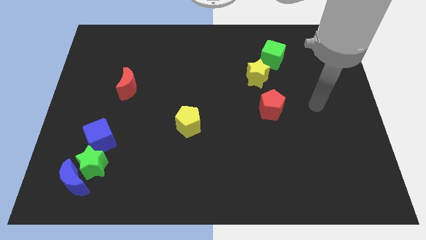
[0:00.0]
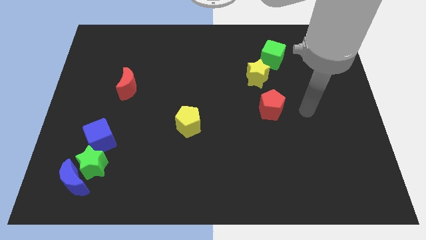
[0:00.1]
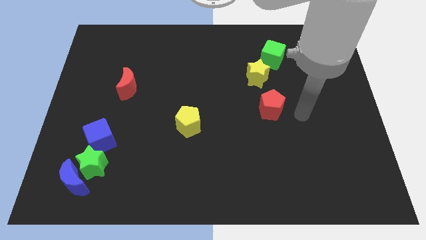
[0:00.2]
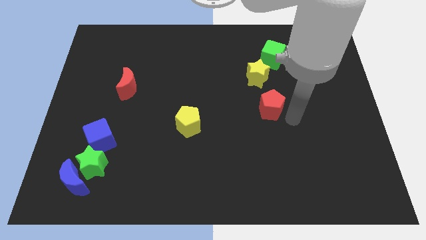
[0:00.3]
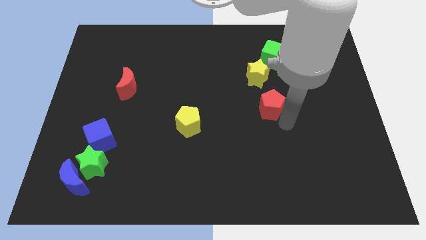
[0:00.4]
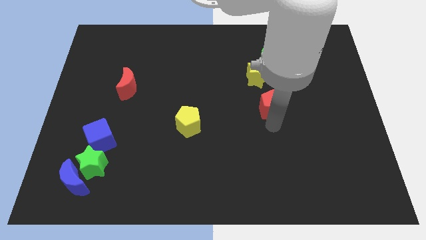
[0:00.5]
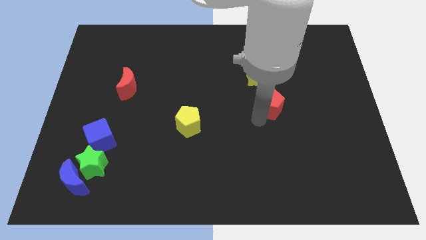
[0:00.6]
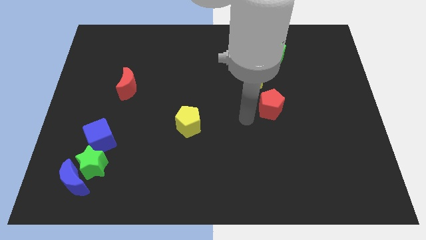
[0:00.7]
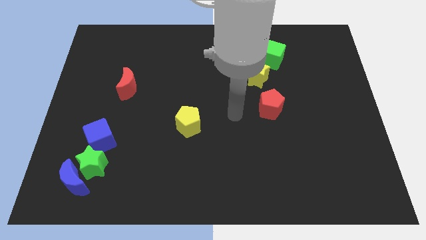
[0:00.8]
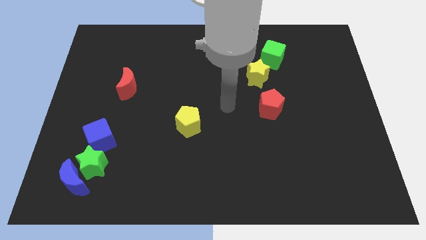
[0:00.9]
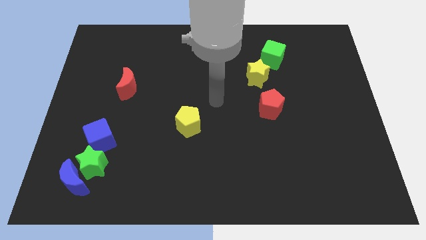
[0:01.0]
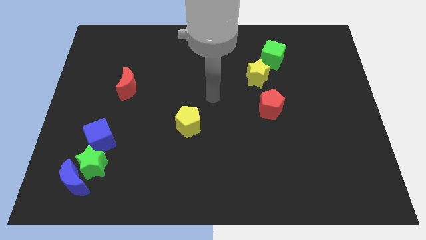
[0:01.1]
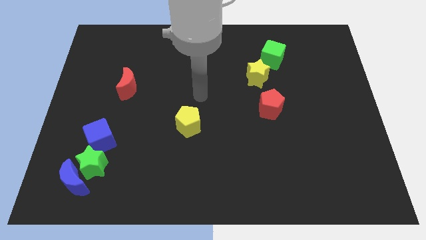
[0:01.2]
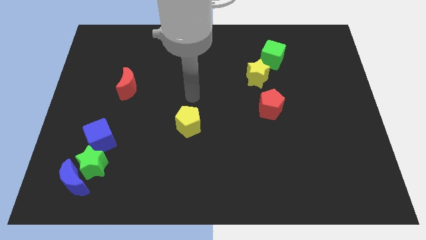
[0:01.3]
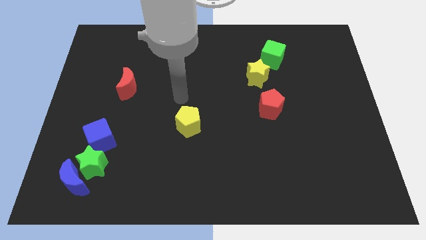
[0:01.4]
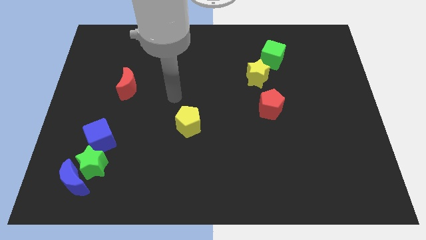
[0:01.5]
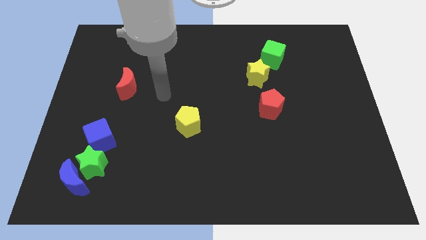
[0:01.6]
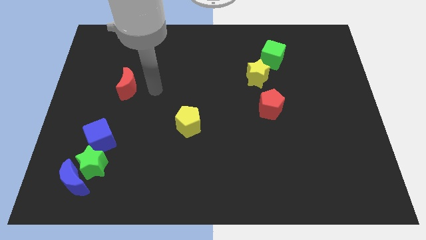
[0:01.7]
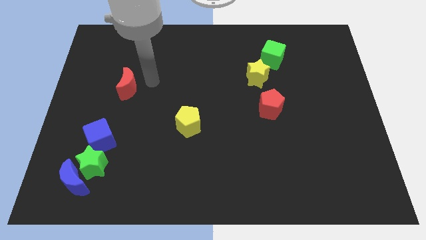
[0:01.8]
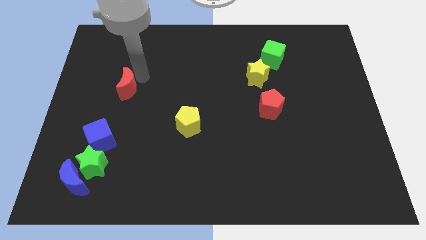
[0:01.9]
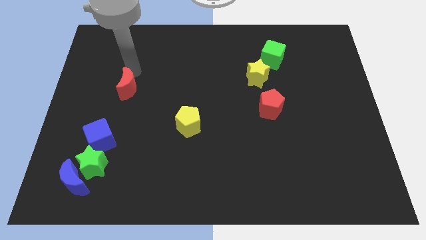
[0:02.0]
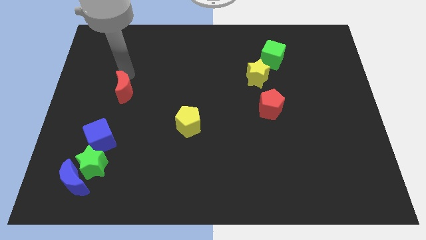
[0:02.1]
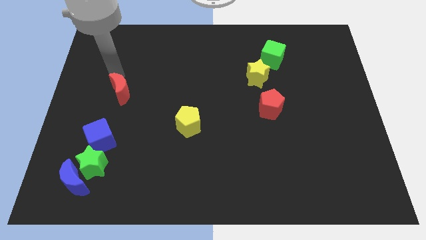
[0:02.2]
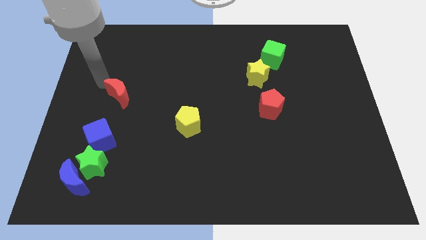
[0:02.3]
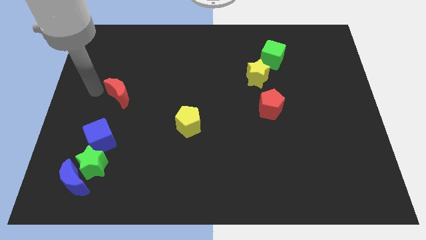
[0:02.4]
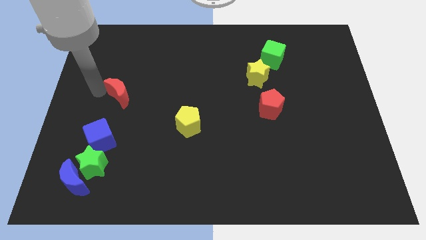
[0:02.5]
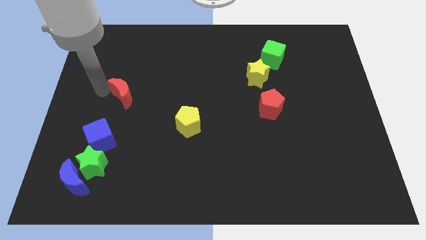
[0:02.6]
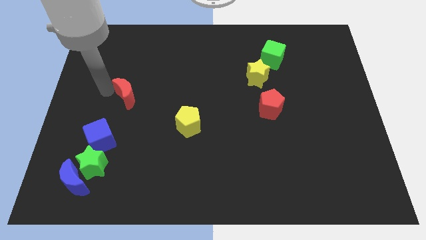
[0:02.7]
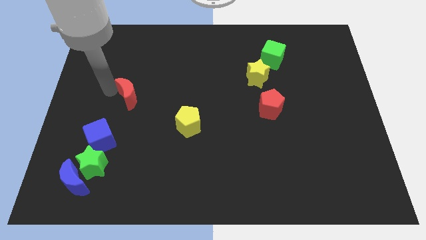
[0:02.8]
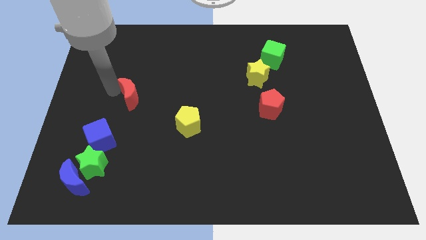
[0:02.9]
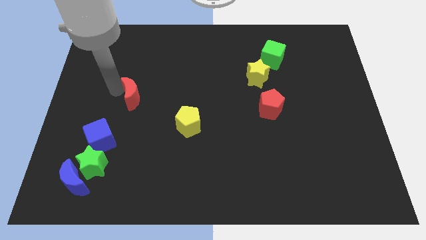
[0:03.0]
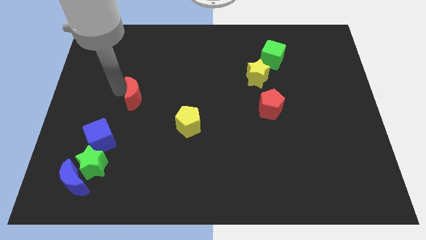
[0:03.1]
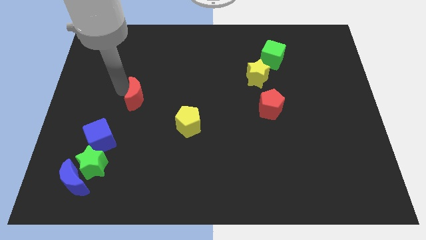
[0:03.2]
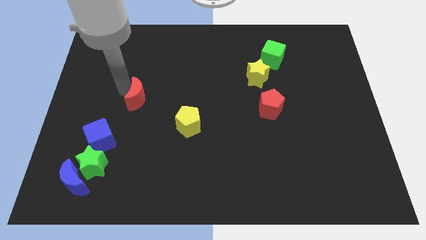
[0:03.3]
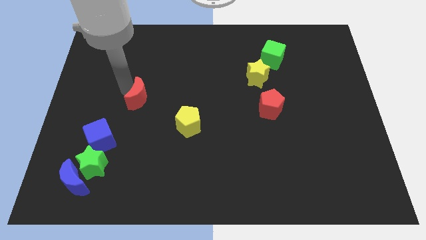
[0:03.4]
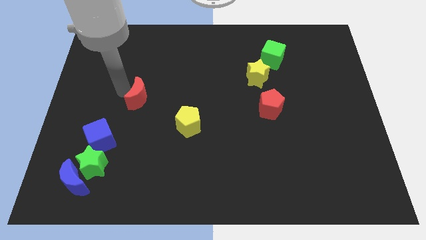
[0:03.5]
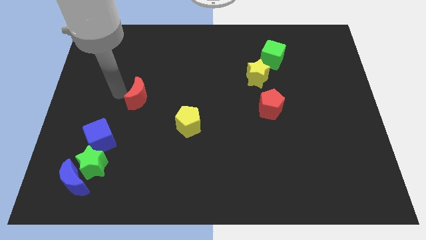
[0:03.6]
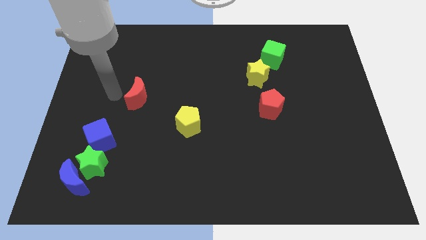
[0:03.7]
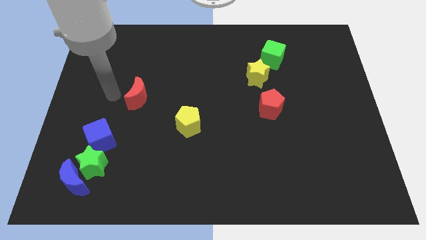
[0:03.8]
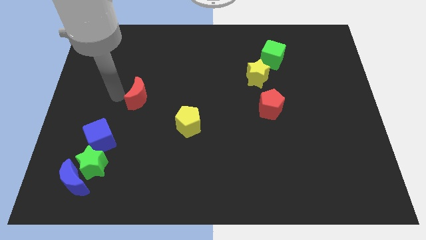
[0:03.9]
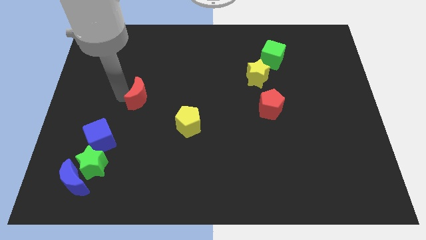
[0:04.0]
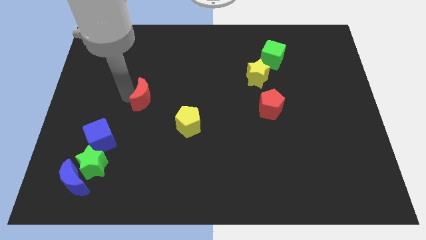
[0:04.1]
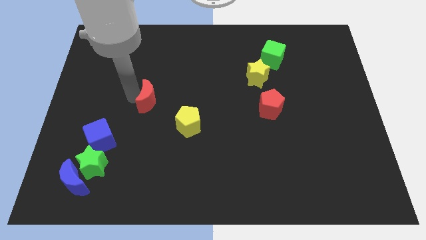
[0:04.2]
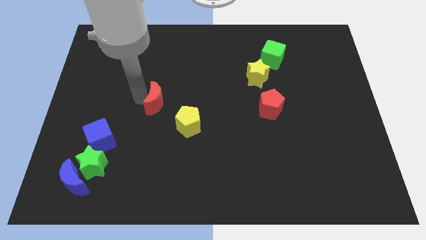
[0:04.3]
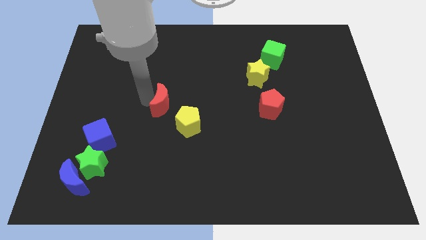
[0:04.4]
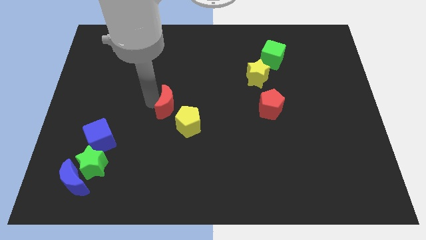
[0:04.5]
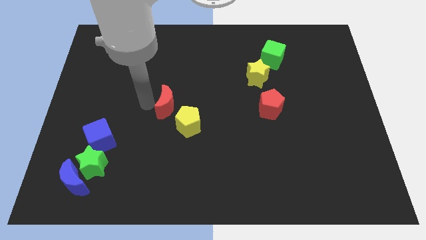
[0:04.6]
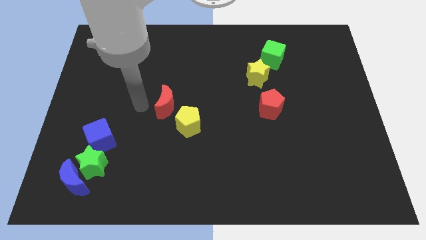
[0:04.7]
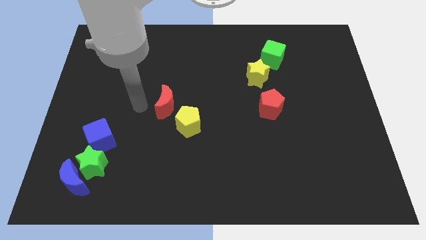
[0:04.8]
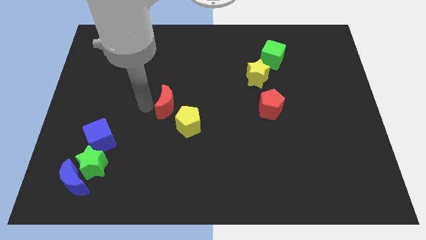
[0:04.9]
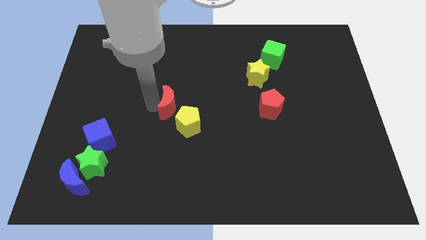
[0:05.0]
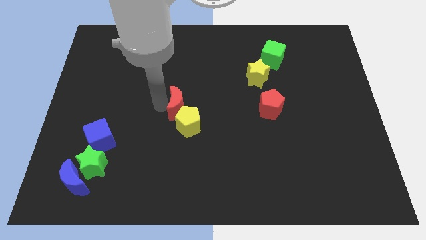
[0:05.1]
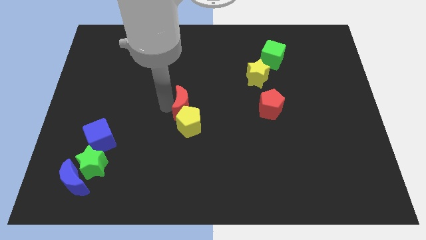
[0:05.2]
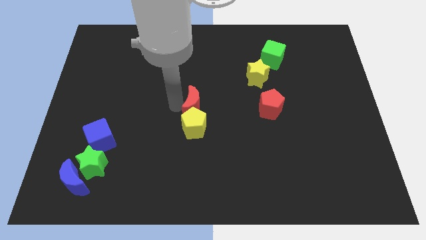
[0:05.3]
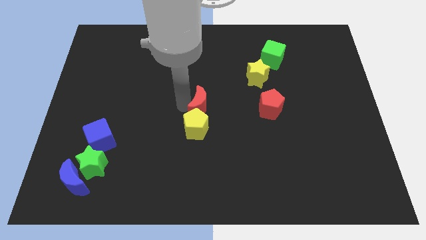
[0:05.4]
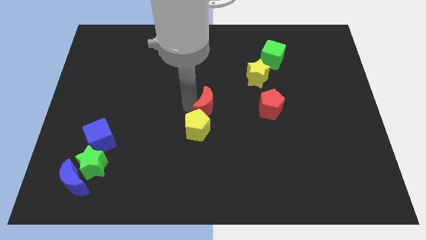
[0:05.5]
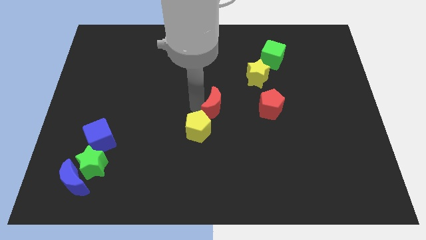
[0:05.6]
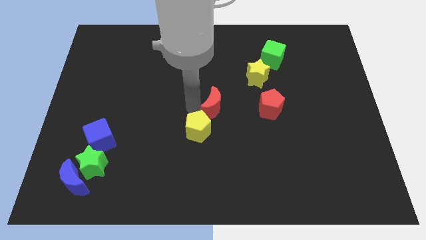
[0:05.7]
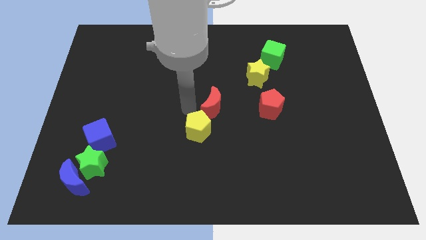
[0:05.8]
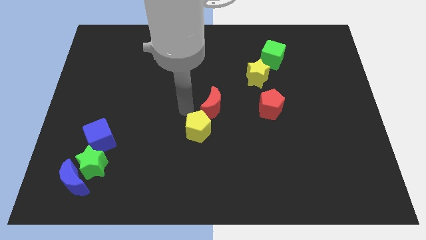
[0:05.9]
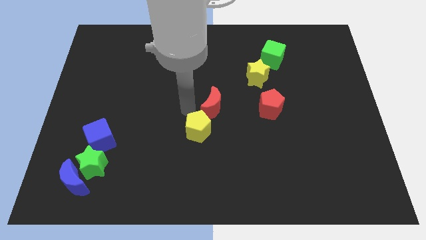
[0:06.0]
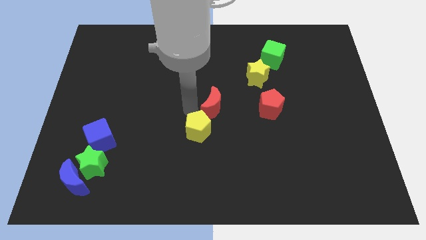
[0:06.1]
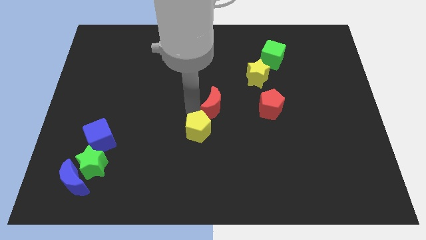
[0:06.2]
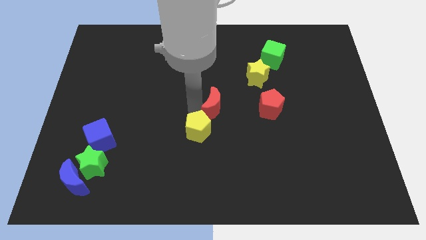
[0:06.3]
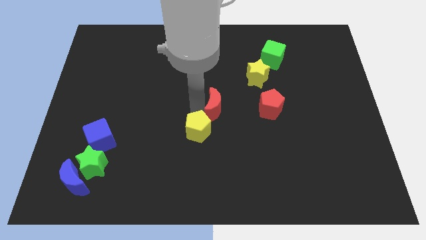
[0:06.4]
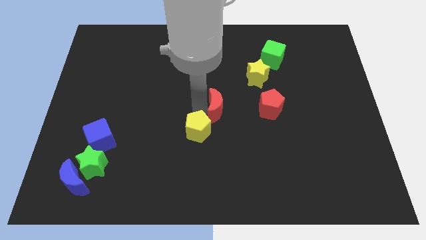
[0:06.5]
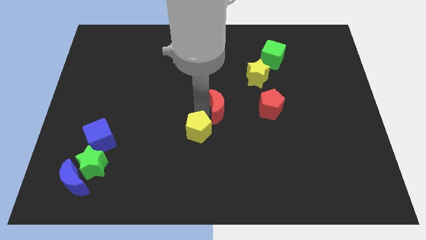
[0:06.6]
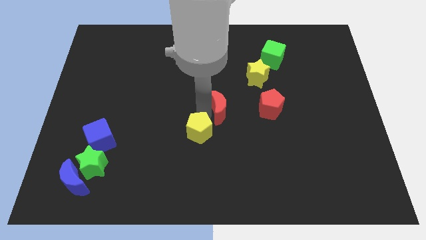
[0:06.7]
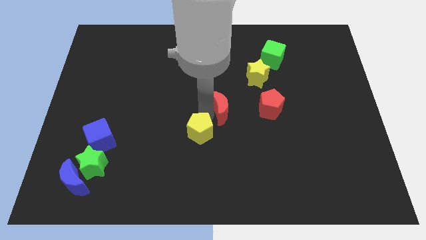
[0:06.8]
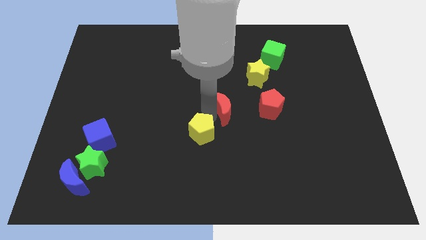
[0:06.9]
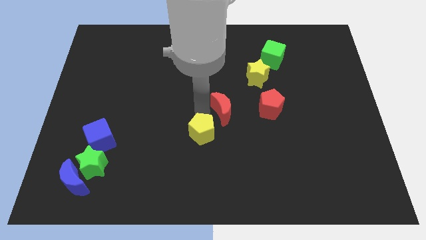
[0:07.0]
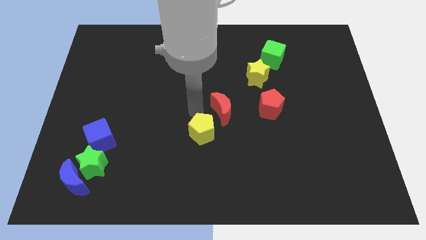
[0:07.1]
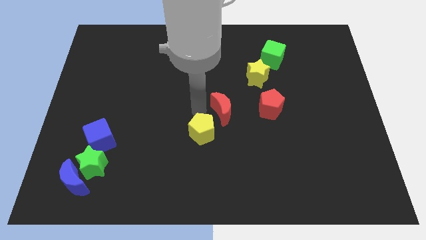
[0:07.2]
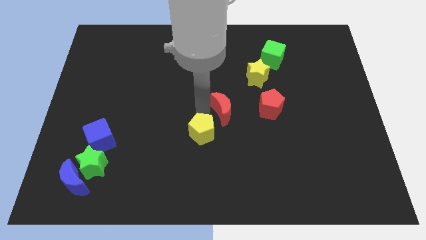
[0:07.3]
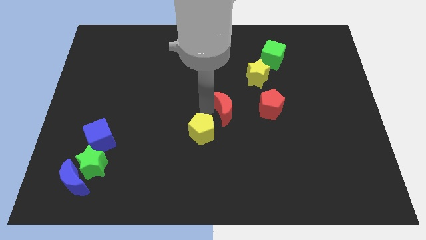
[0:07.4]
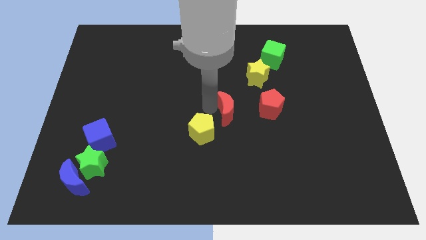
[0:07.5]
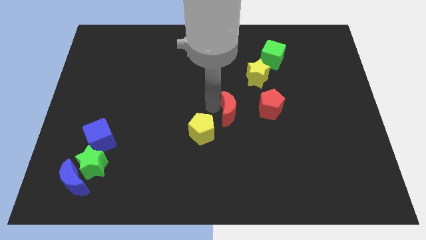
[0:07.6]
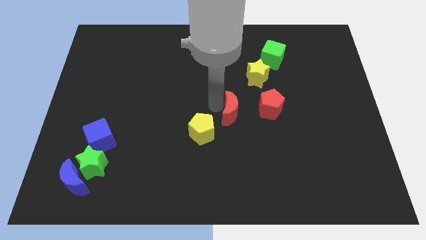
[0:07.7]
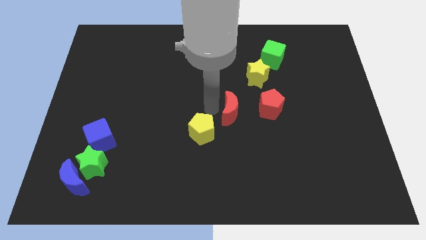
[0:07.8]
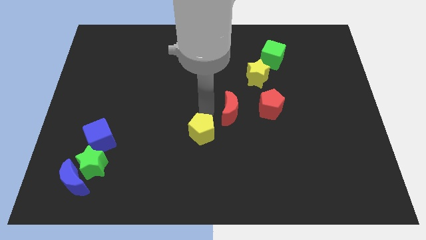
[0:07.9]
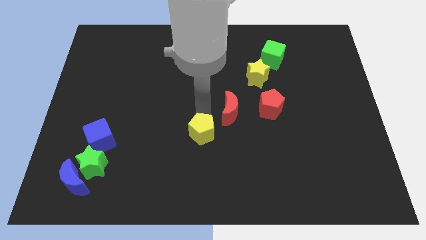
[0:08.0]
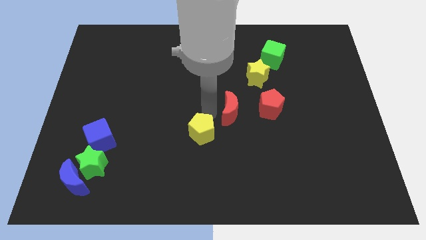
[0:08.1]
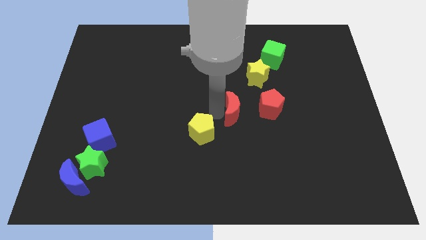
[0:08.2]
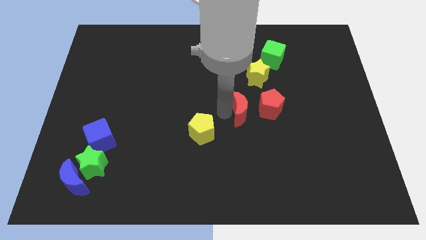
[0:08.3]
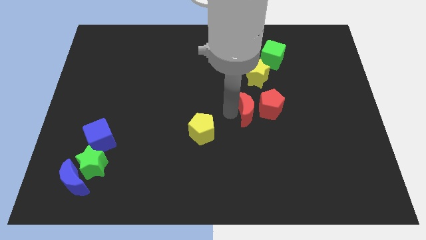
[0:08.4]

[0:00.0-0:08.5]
push the red moon close to the red pentagon
